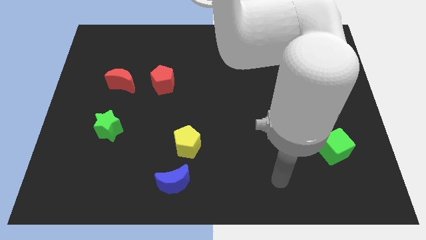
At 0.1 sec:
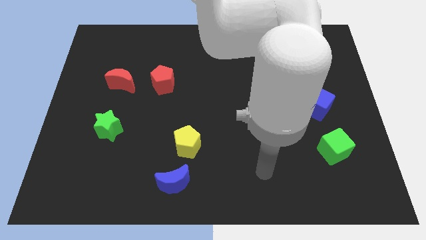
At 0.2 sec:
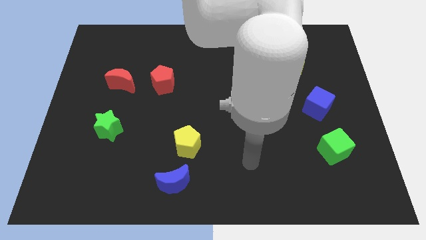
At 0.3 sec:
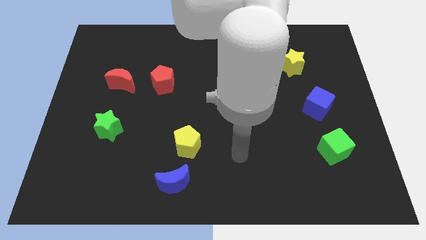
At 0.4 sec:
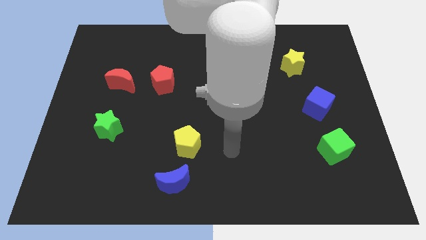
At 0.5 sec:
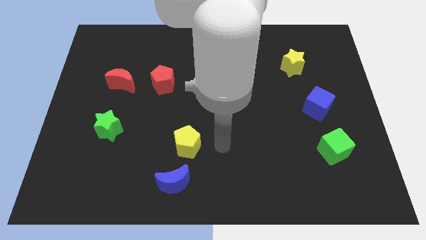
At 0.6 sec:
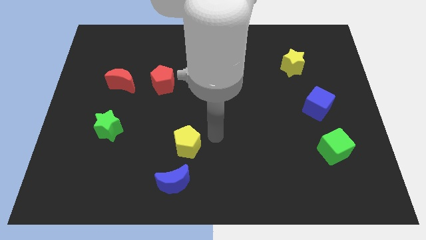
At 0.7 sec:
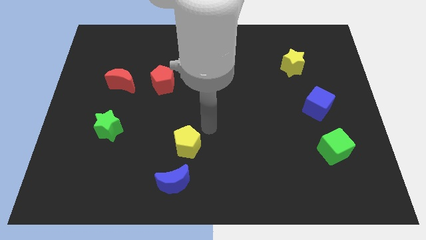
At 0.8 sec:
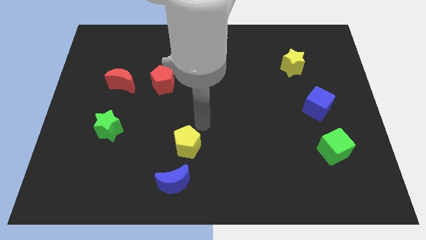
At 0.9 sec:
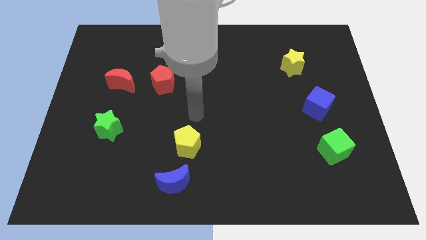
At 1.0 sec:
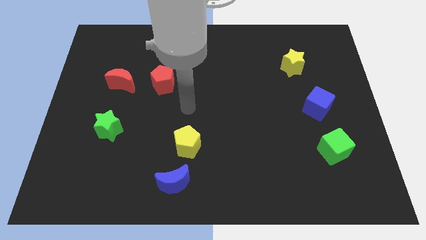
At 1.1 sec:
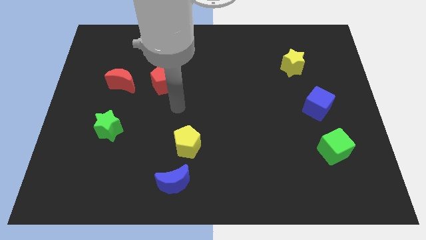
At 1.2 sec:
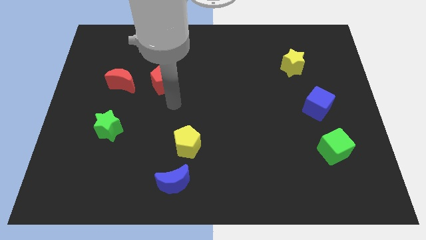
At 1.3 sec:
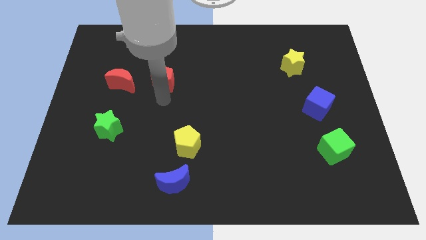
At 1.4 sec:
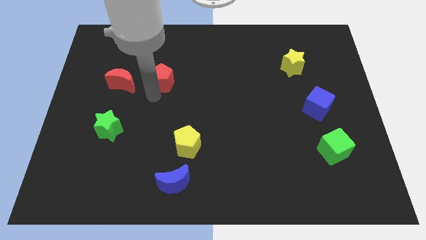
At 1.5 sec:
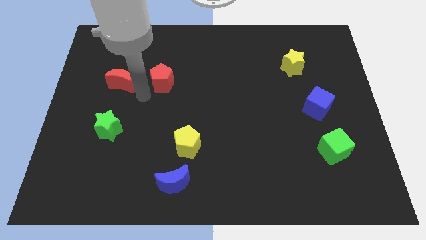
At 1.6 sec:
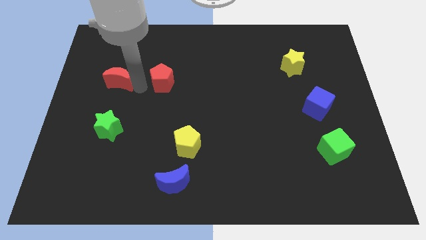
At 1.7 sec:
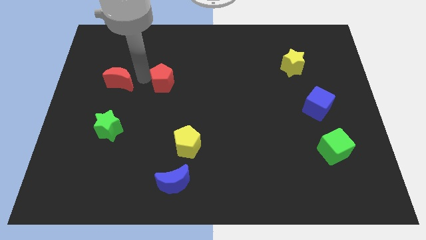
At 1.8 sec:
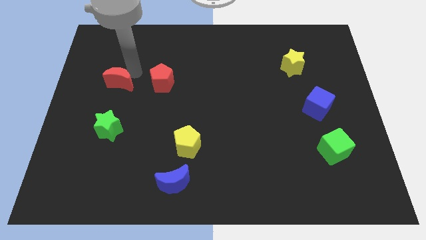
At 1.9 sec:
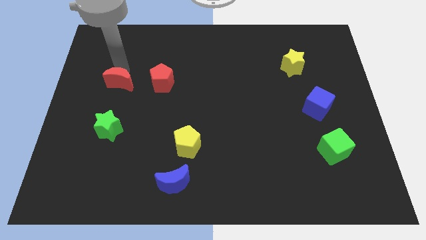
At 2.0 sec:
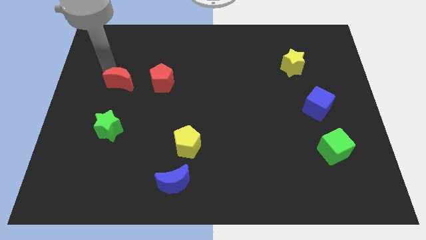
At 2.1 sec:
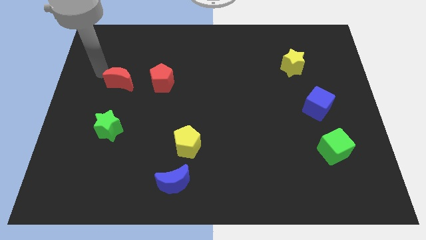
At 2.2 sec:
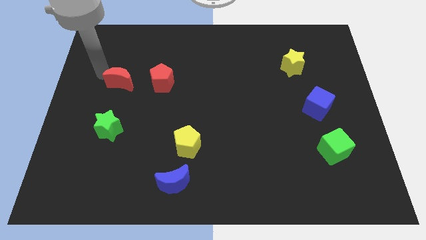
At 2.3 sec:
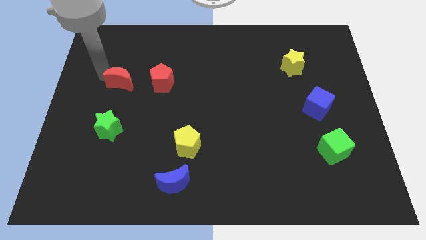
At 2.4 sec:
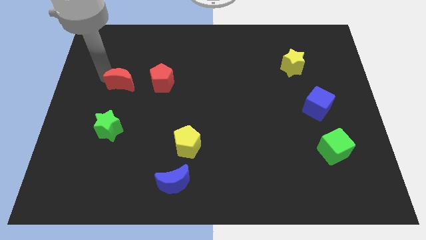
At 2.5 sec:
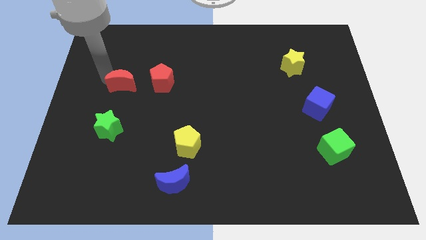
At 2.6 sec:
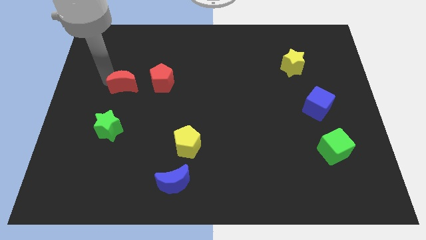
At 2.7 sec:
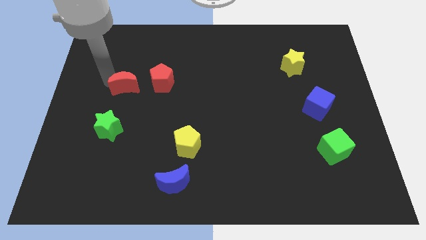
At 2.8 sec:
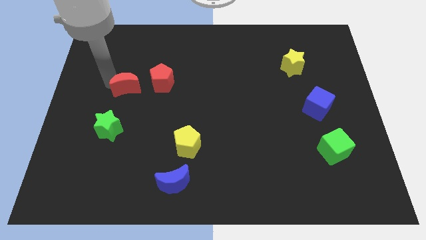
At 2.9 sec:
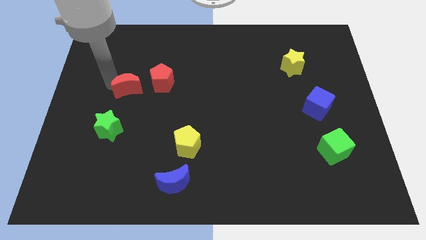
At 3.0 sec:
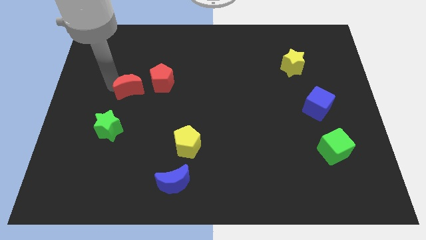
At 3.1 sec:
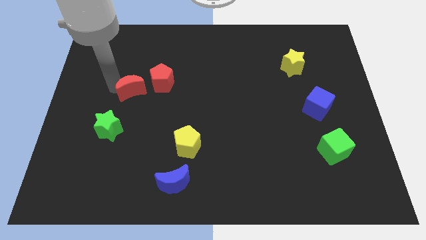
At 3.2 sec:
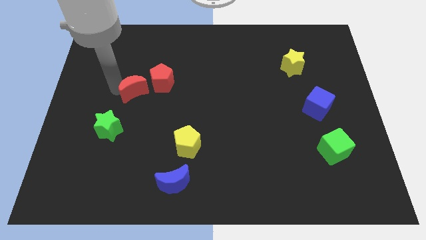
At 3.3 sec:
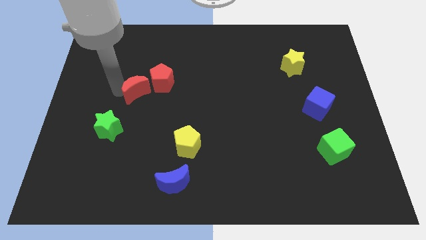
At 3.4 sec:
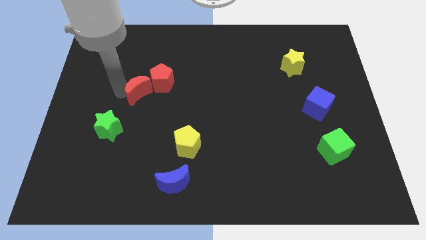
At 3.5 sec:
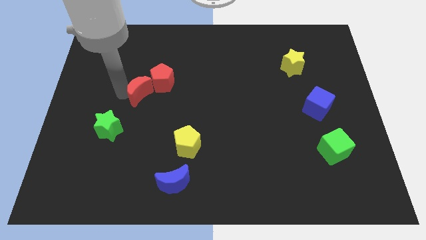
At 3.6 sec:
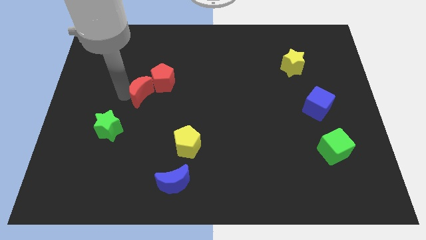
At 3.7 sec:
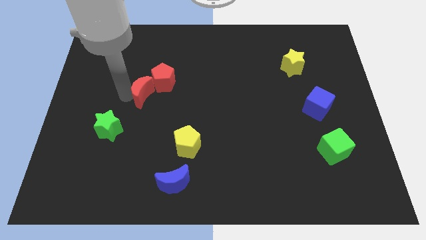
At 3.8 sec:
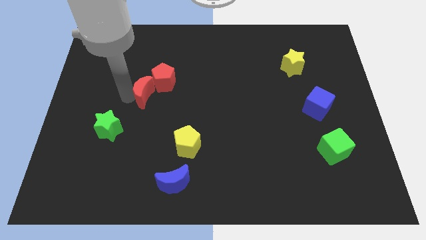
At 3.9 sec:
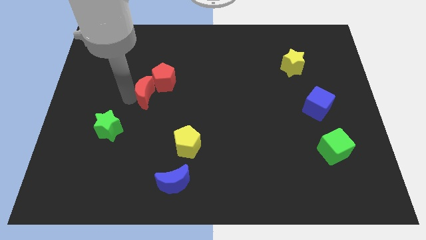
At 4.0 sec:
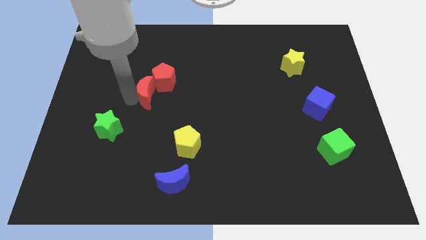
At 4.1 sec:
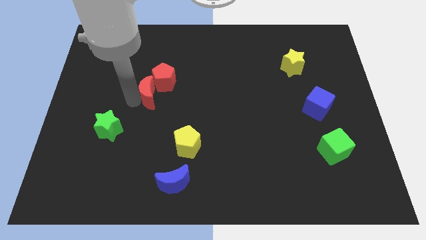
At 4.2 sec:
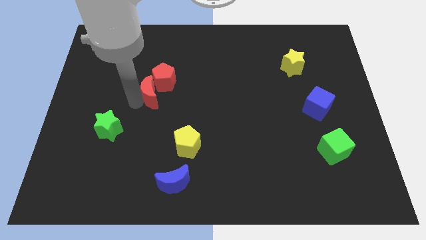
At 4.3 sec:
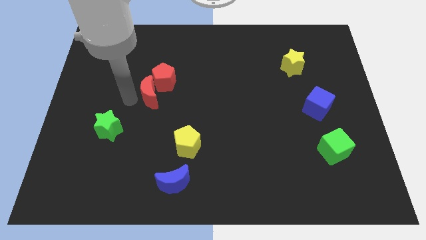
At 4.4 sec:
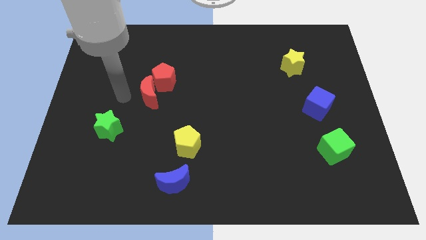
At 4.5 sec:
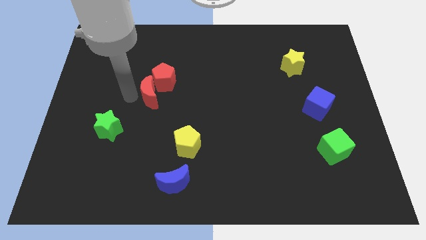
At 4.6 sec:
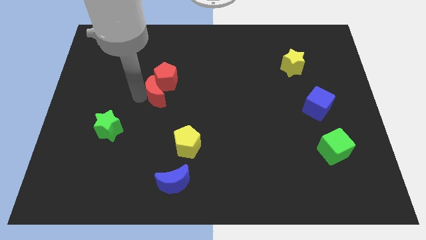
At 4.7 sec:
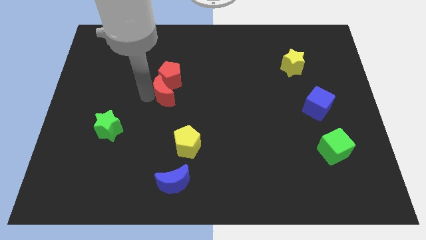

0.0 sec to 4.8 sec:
put the red moon to the middle of the board

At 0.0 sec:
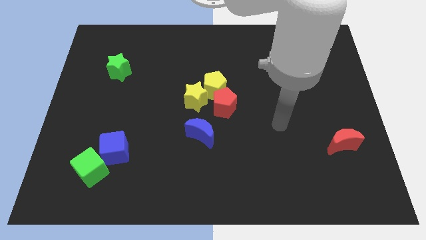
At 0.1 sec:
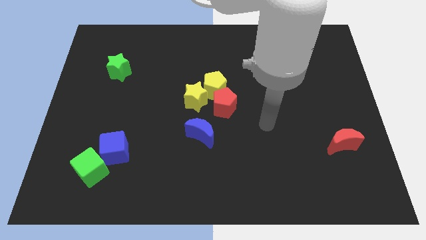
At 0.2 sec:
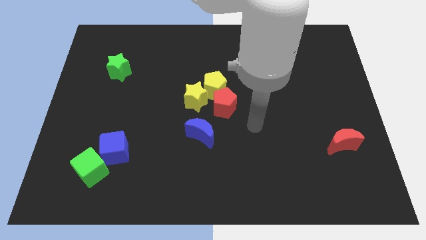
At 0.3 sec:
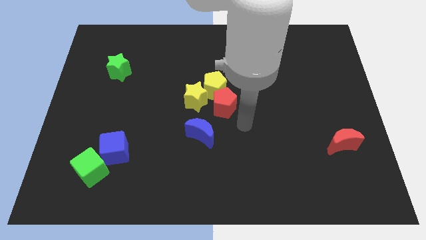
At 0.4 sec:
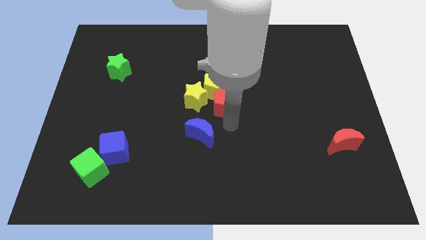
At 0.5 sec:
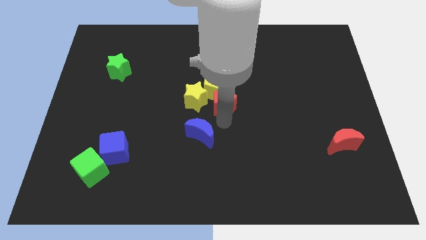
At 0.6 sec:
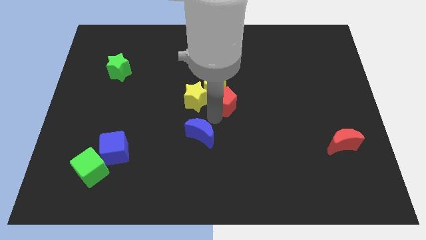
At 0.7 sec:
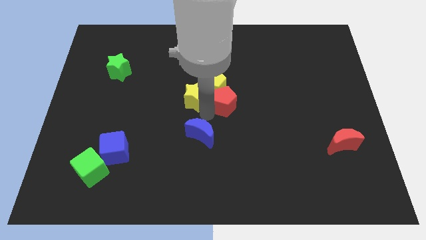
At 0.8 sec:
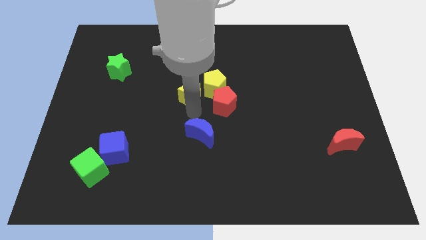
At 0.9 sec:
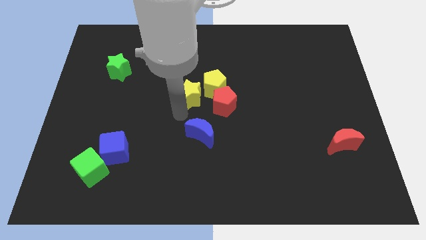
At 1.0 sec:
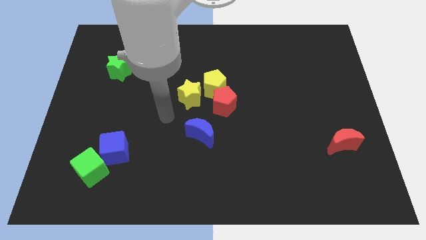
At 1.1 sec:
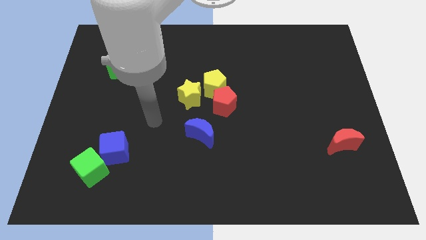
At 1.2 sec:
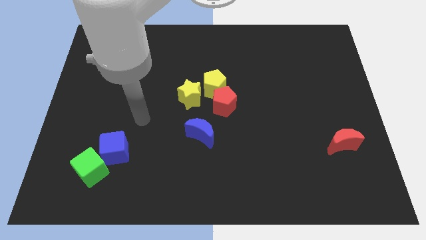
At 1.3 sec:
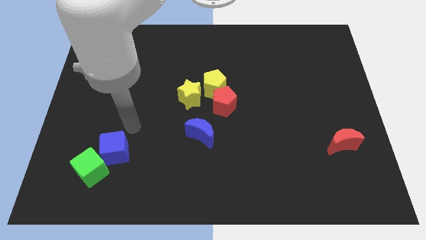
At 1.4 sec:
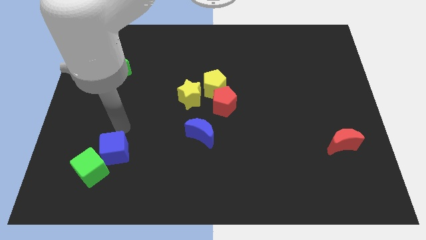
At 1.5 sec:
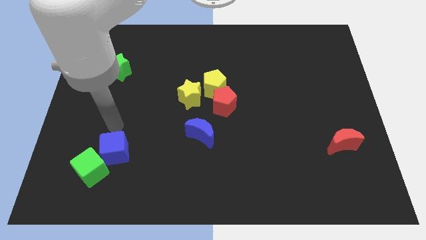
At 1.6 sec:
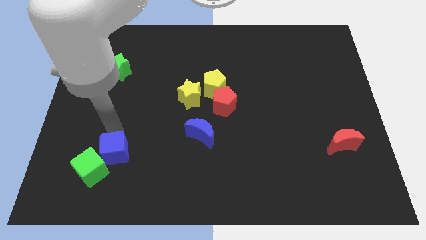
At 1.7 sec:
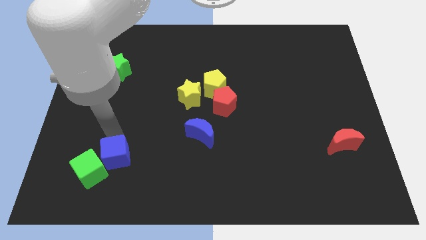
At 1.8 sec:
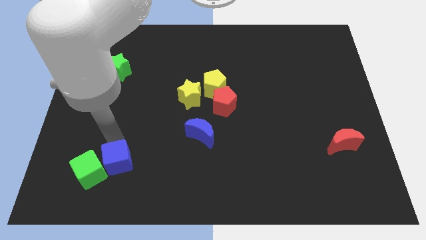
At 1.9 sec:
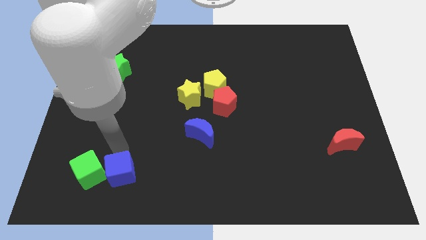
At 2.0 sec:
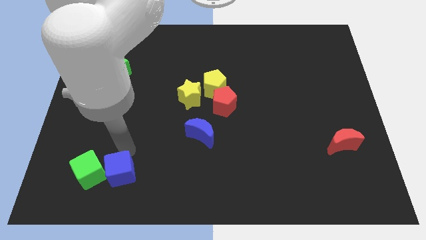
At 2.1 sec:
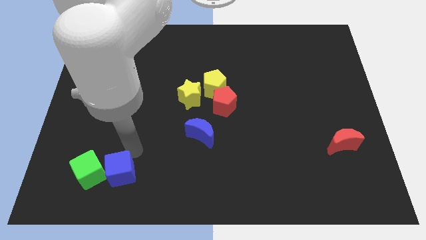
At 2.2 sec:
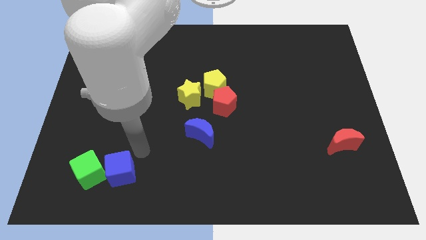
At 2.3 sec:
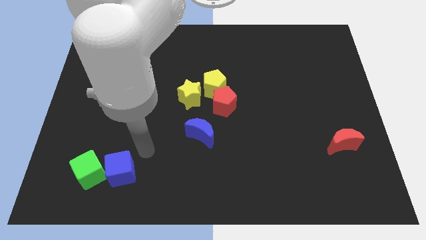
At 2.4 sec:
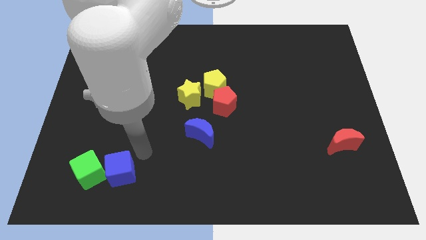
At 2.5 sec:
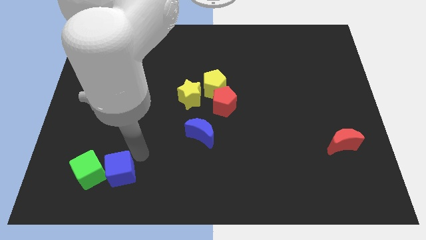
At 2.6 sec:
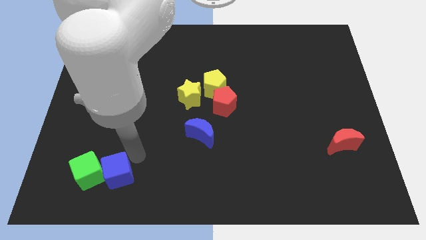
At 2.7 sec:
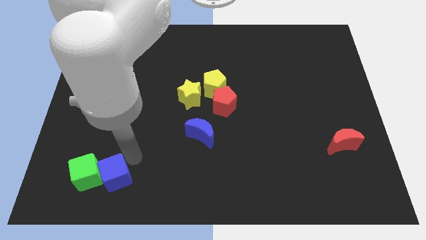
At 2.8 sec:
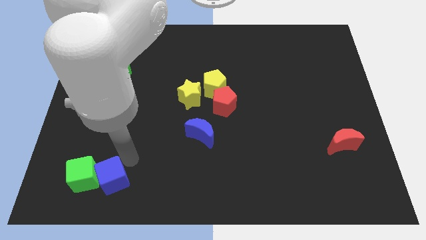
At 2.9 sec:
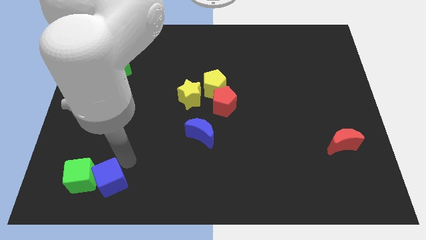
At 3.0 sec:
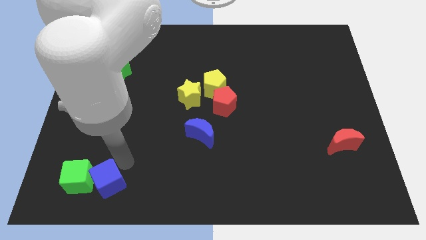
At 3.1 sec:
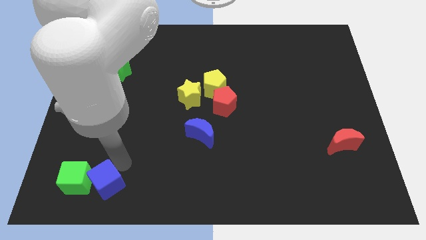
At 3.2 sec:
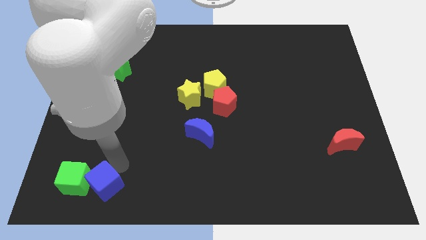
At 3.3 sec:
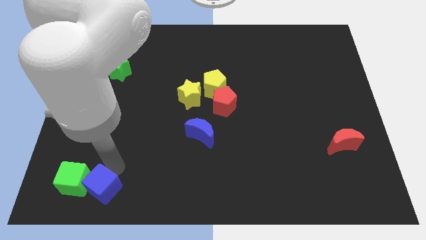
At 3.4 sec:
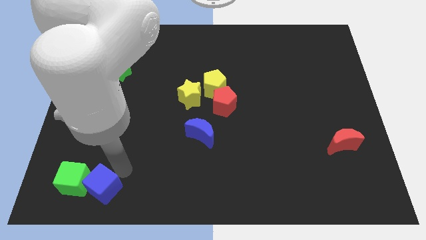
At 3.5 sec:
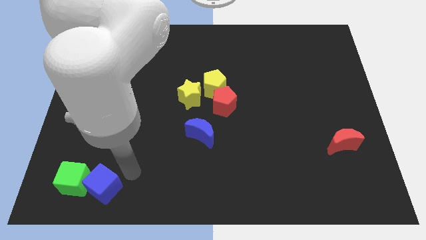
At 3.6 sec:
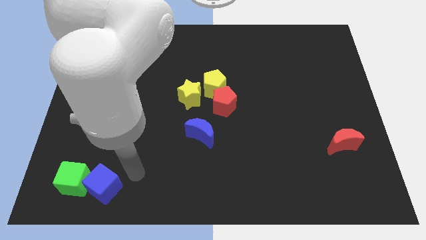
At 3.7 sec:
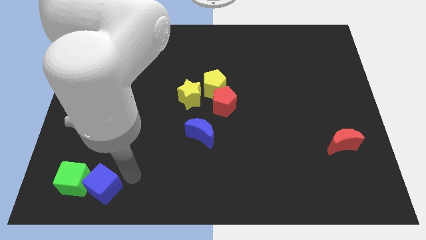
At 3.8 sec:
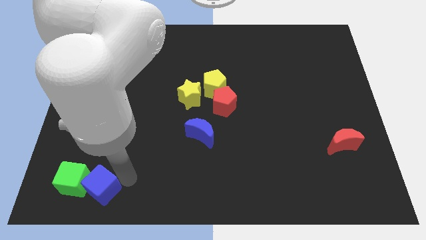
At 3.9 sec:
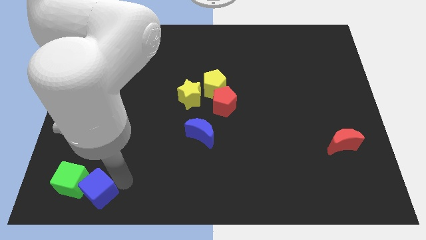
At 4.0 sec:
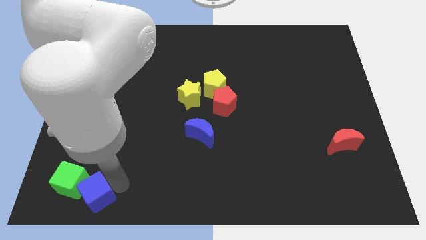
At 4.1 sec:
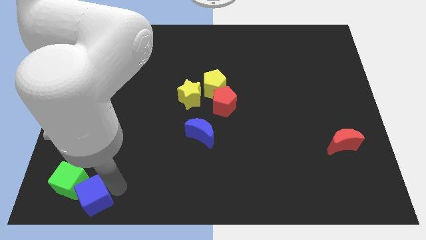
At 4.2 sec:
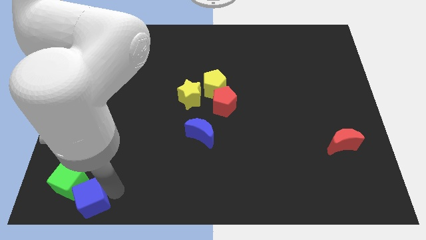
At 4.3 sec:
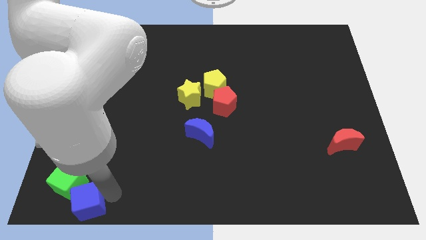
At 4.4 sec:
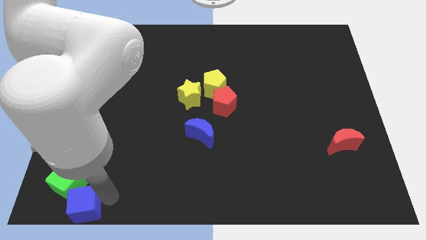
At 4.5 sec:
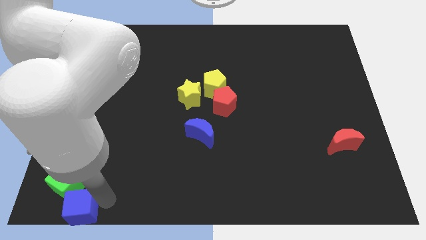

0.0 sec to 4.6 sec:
slide the blue cube to the bottom left corner
